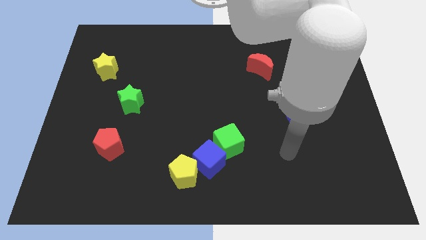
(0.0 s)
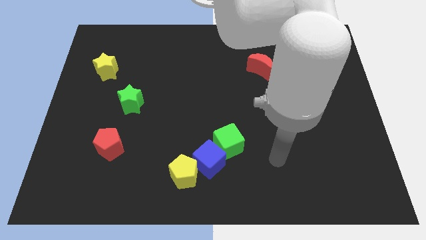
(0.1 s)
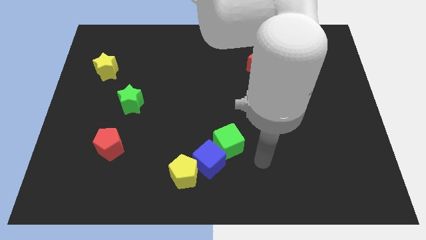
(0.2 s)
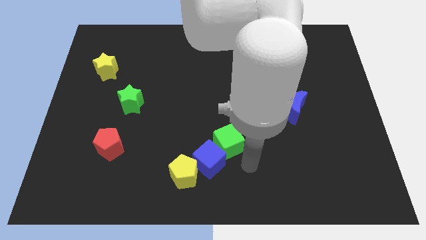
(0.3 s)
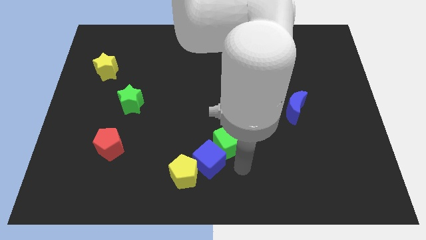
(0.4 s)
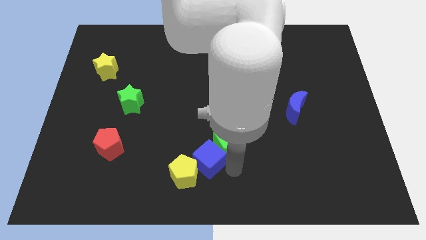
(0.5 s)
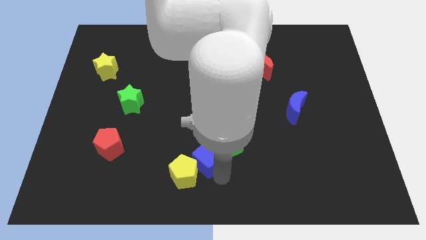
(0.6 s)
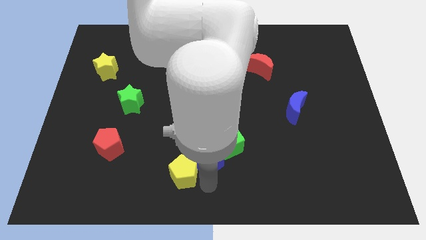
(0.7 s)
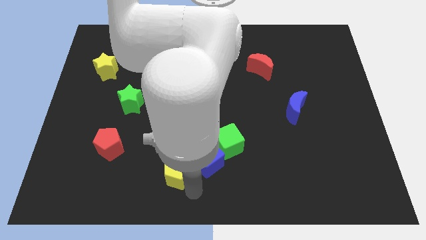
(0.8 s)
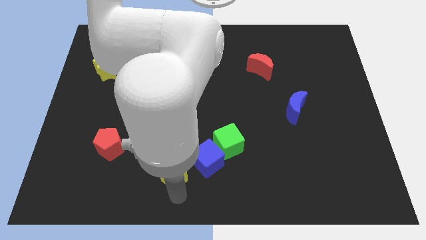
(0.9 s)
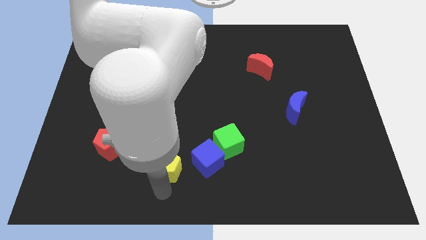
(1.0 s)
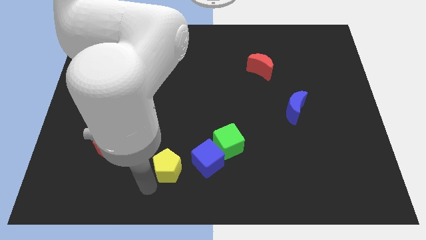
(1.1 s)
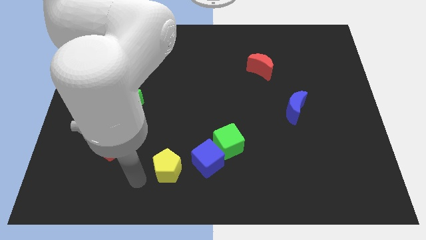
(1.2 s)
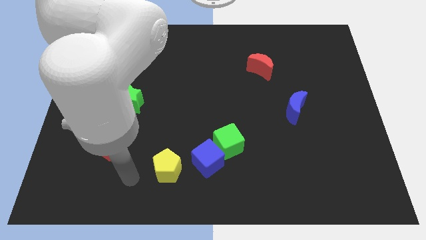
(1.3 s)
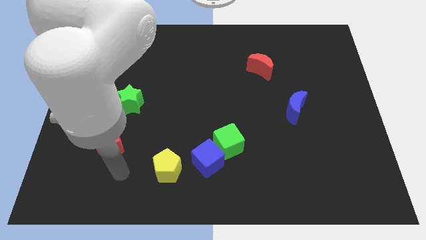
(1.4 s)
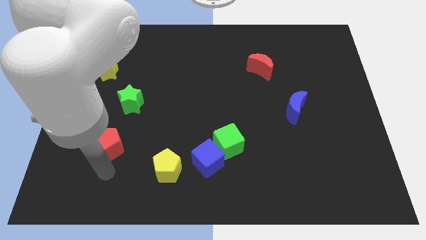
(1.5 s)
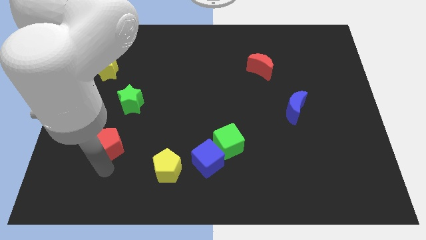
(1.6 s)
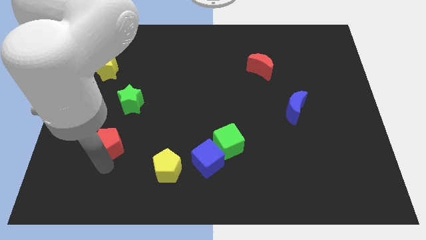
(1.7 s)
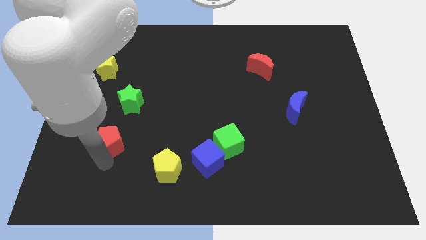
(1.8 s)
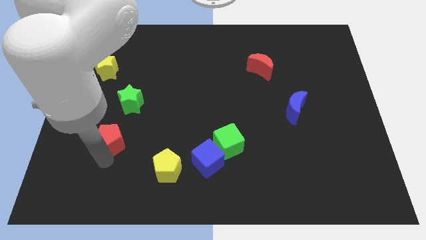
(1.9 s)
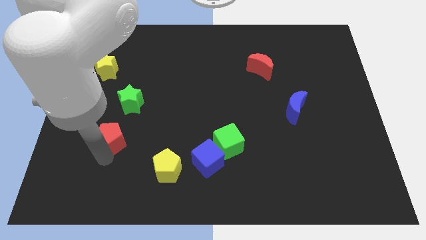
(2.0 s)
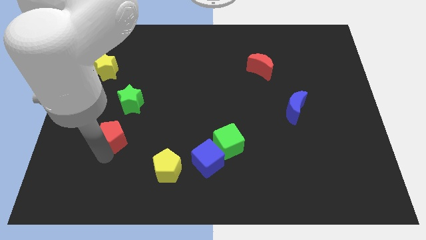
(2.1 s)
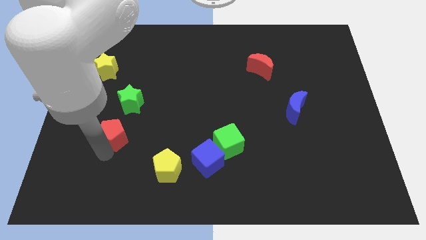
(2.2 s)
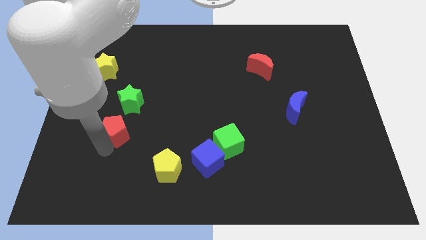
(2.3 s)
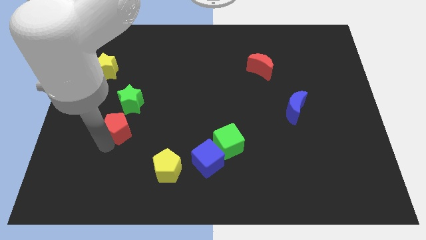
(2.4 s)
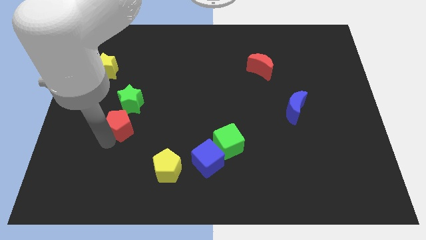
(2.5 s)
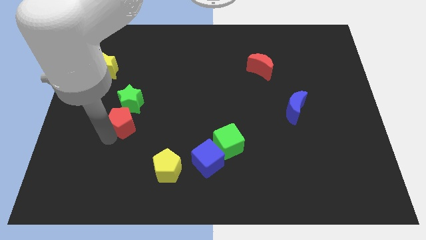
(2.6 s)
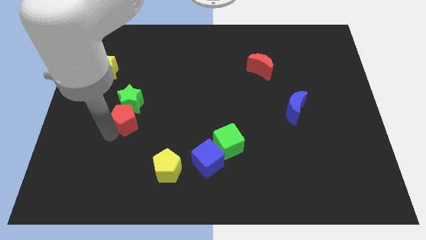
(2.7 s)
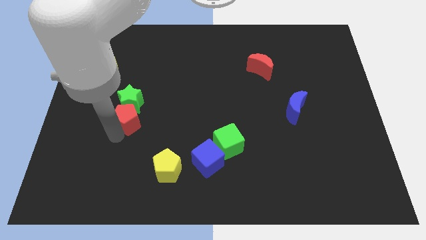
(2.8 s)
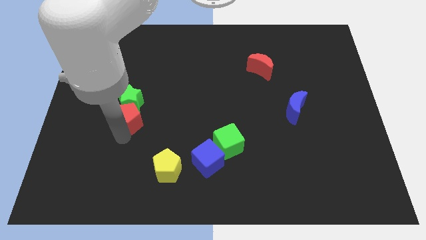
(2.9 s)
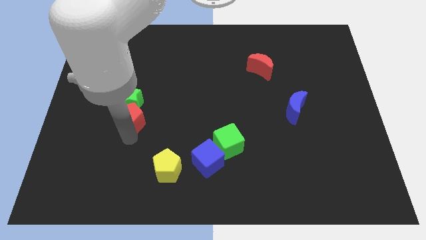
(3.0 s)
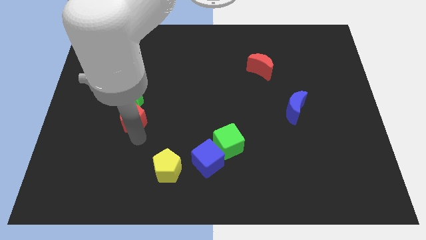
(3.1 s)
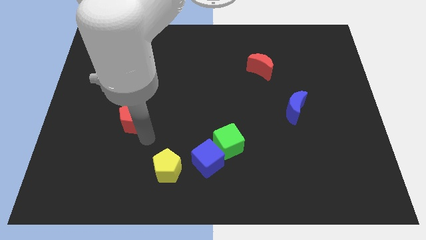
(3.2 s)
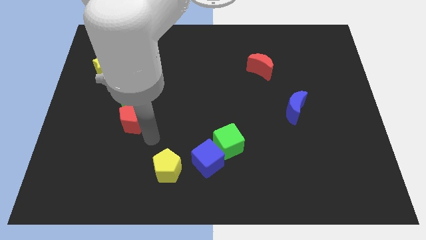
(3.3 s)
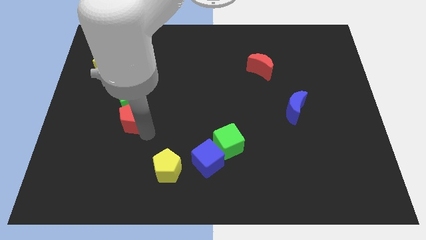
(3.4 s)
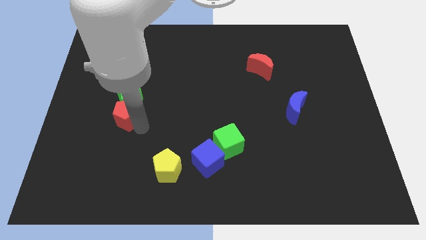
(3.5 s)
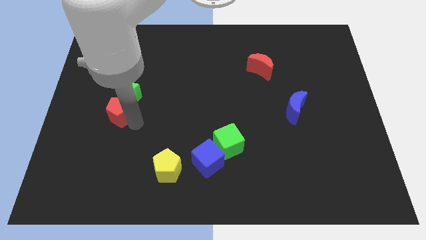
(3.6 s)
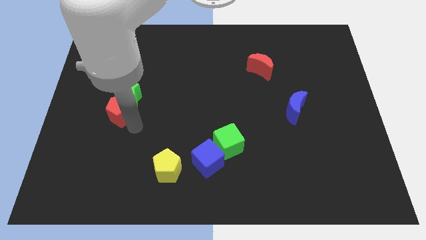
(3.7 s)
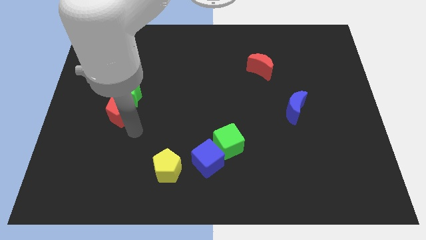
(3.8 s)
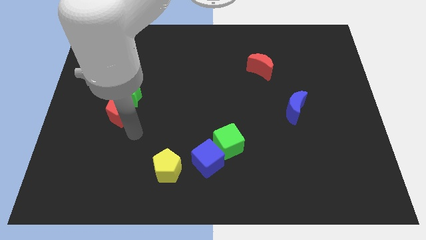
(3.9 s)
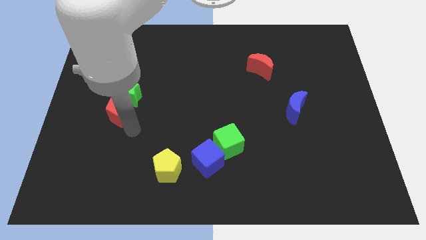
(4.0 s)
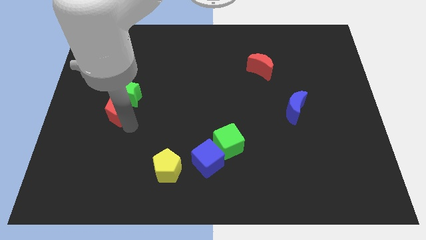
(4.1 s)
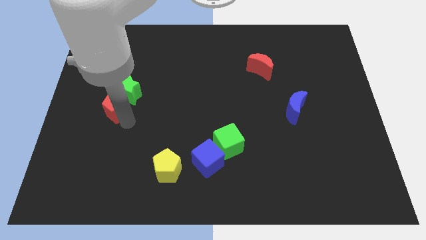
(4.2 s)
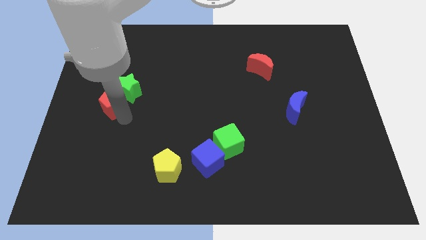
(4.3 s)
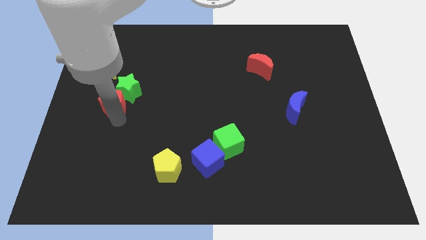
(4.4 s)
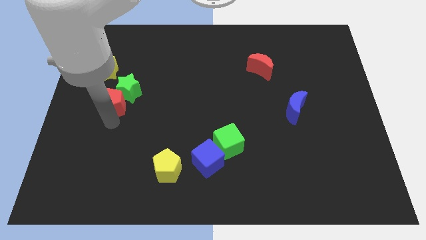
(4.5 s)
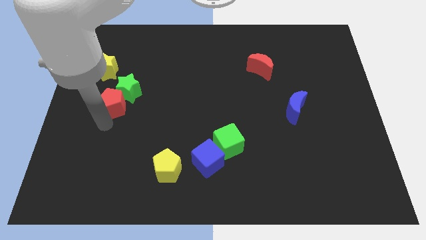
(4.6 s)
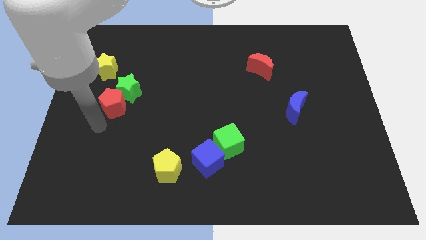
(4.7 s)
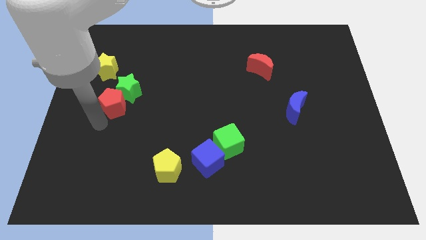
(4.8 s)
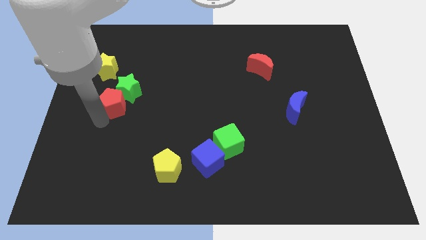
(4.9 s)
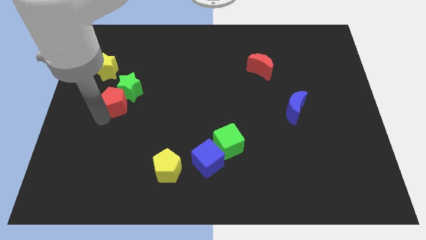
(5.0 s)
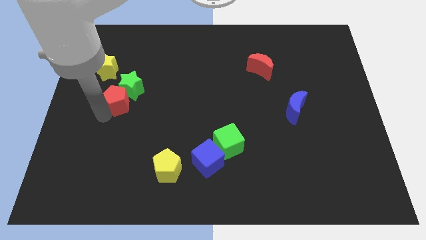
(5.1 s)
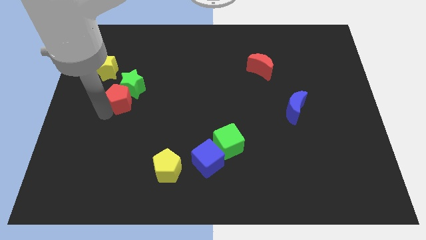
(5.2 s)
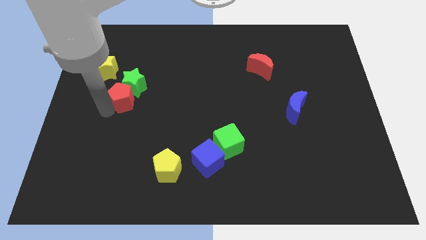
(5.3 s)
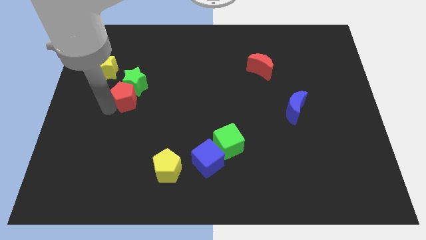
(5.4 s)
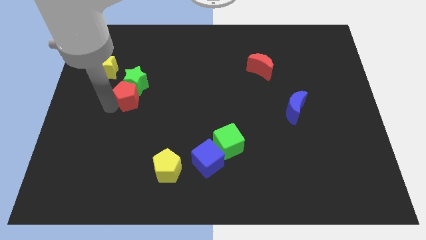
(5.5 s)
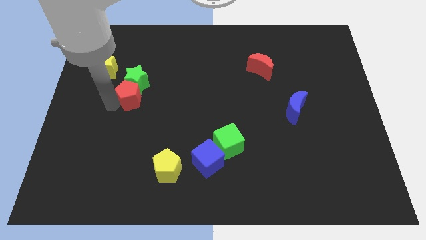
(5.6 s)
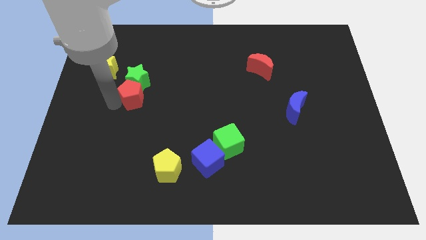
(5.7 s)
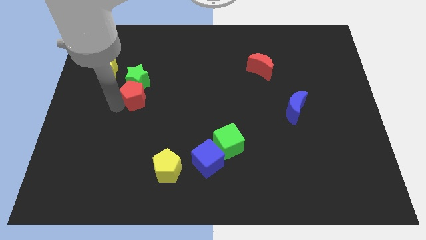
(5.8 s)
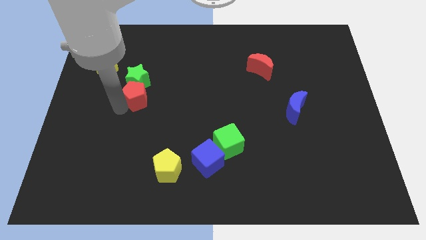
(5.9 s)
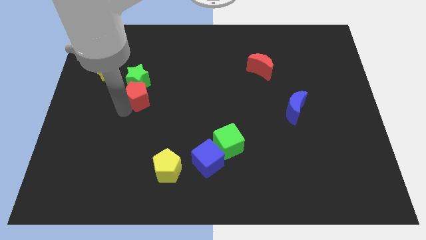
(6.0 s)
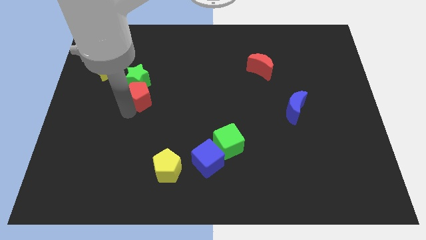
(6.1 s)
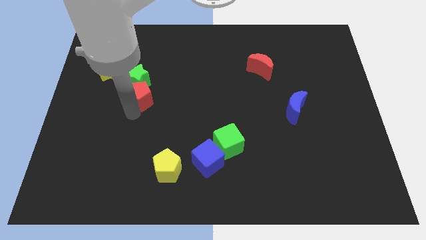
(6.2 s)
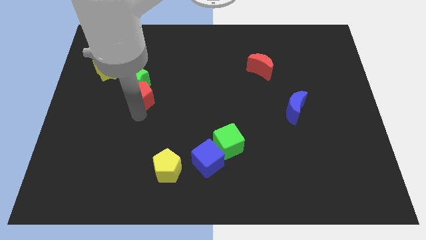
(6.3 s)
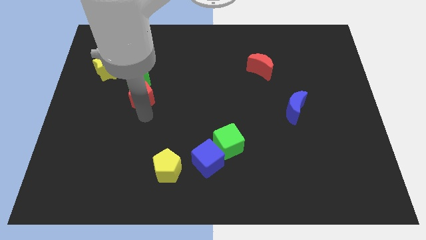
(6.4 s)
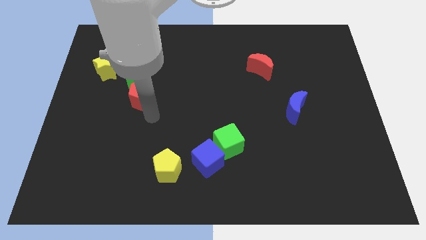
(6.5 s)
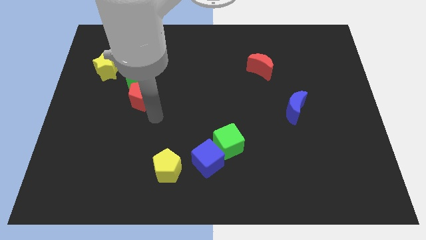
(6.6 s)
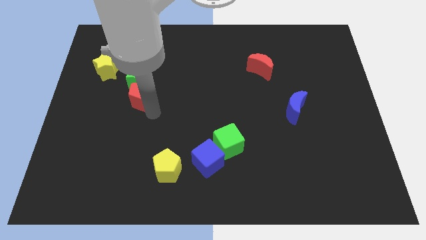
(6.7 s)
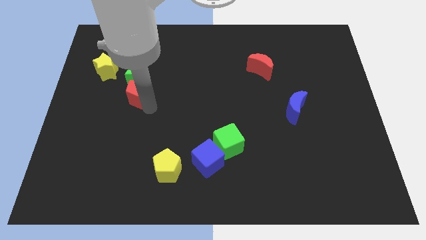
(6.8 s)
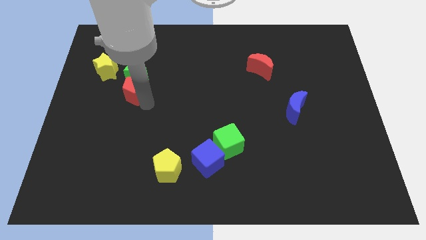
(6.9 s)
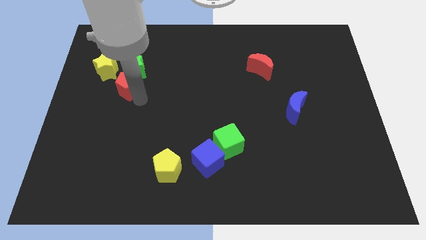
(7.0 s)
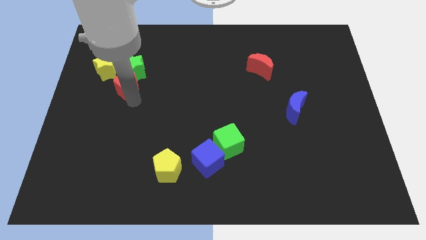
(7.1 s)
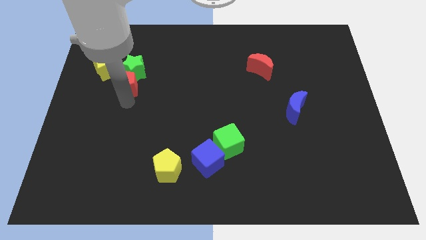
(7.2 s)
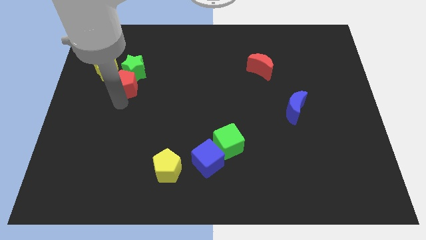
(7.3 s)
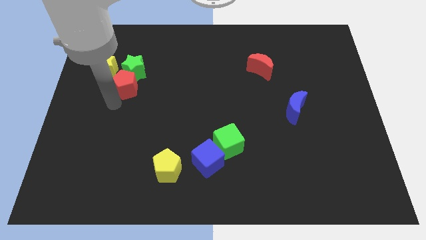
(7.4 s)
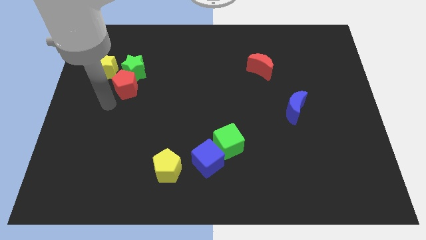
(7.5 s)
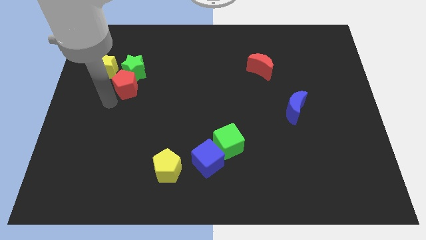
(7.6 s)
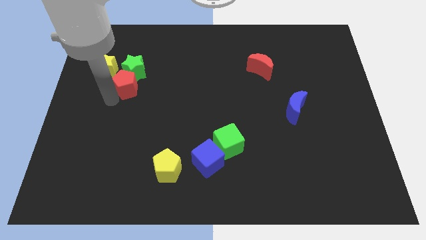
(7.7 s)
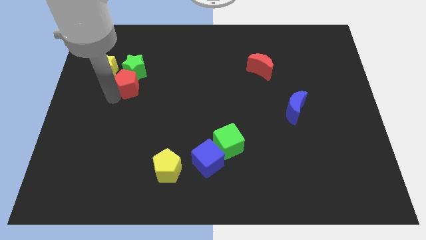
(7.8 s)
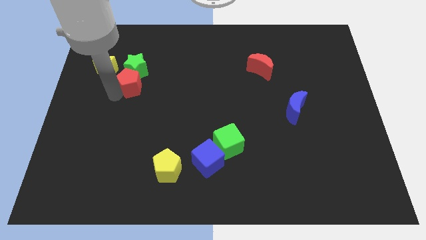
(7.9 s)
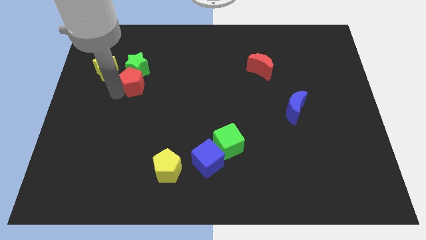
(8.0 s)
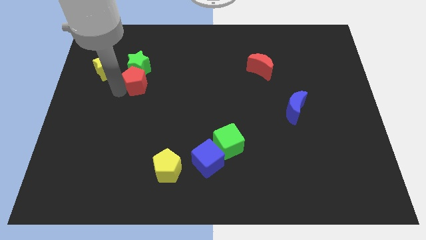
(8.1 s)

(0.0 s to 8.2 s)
put the red pentagon to the right side of the yellow star
